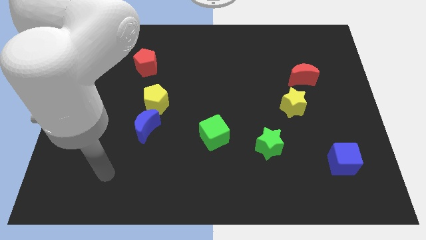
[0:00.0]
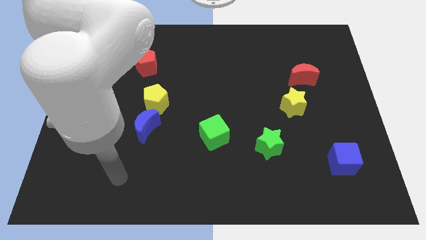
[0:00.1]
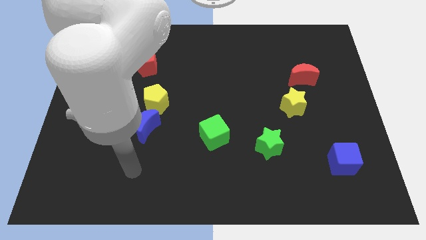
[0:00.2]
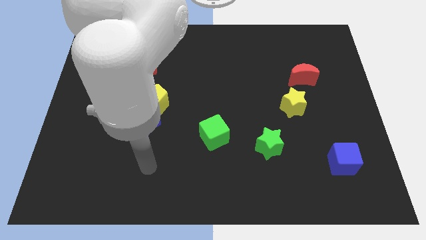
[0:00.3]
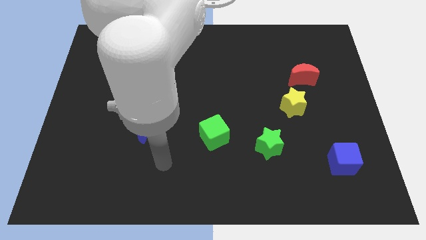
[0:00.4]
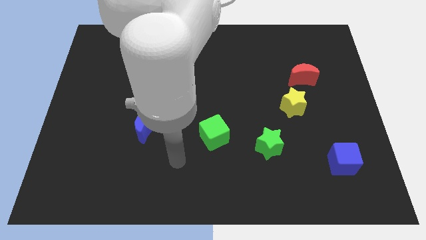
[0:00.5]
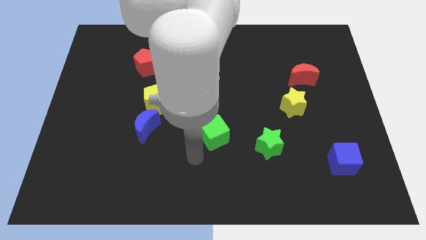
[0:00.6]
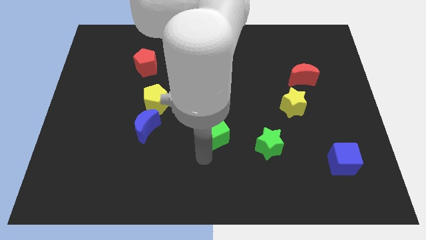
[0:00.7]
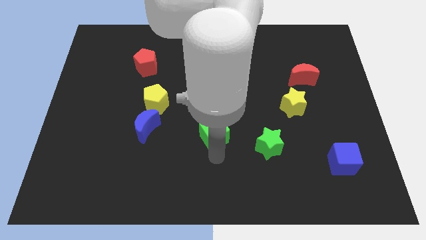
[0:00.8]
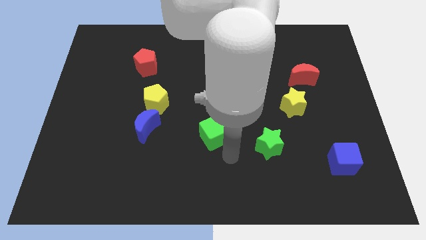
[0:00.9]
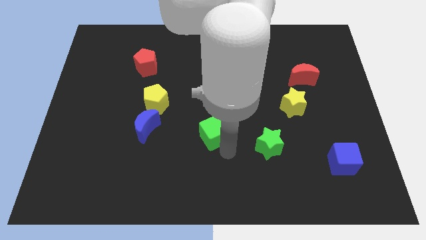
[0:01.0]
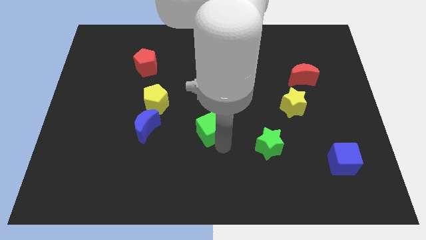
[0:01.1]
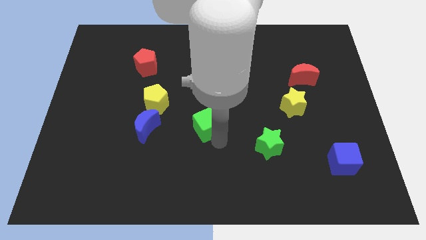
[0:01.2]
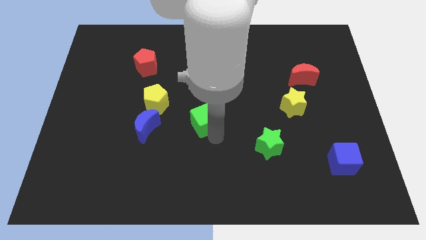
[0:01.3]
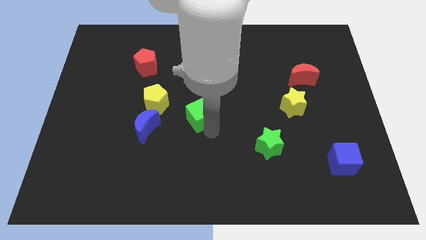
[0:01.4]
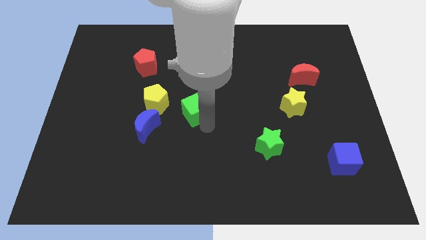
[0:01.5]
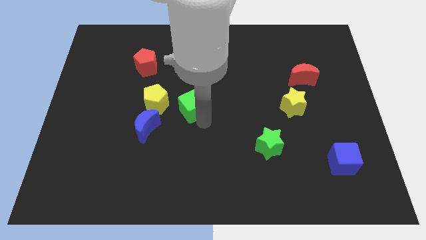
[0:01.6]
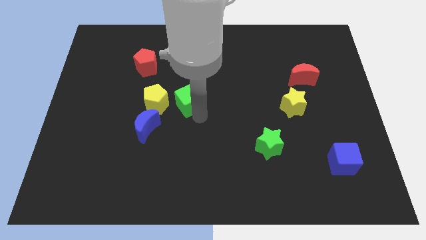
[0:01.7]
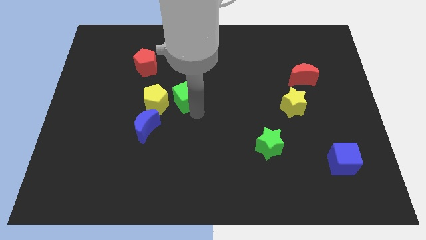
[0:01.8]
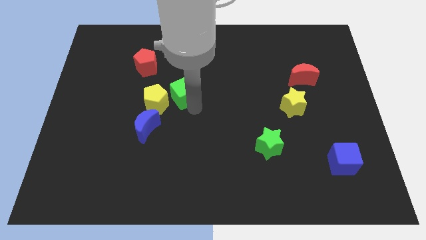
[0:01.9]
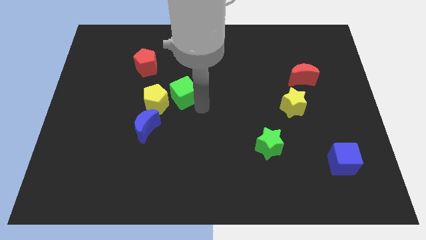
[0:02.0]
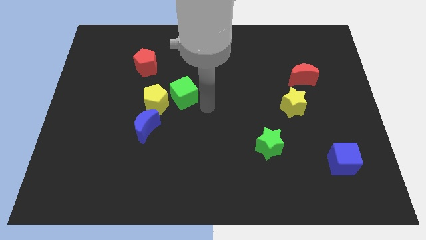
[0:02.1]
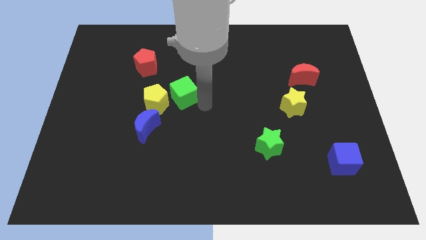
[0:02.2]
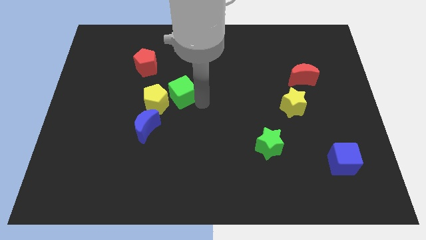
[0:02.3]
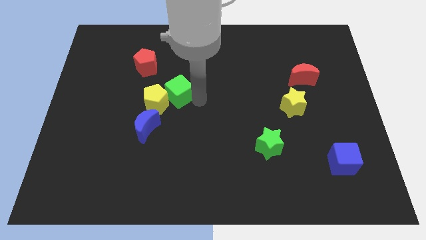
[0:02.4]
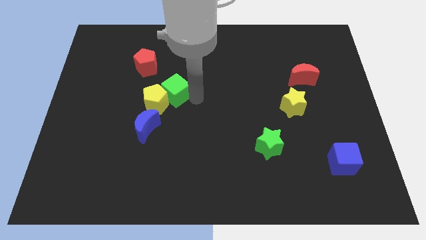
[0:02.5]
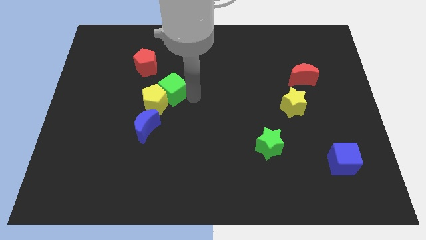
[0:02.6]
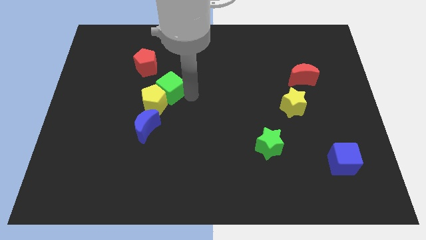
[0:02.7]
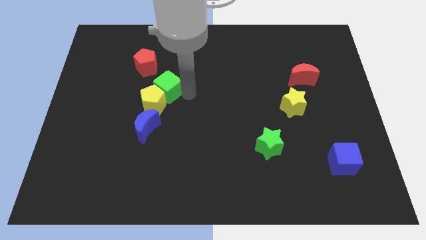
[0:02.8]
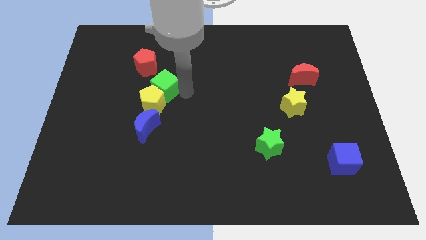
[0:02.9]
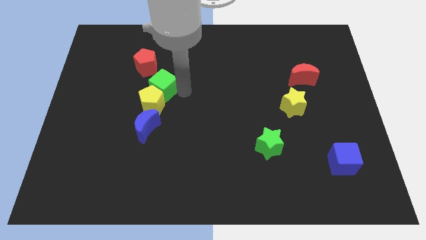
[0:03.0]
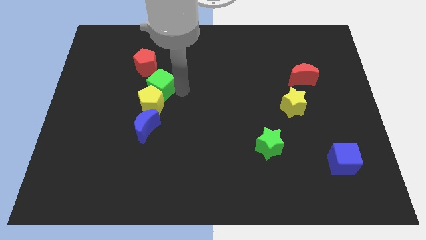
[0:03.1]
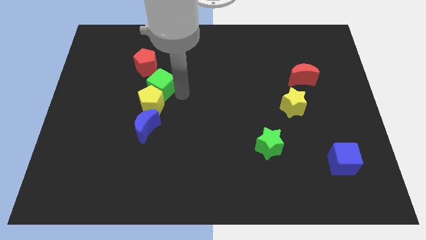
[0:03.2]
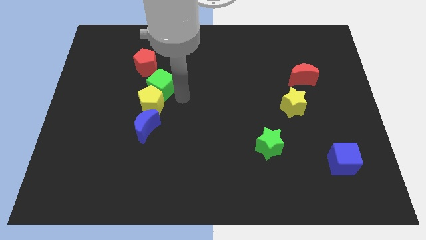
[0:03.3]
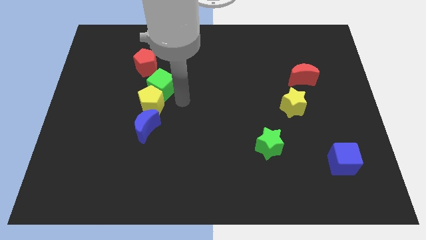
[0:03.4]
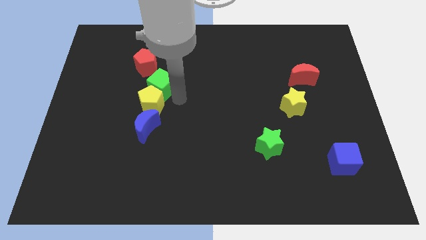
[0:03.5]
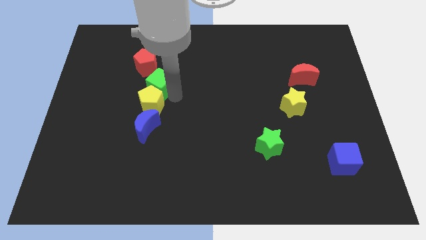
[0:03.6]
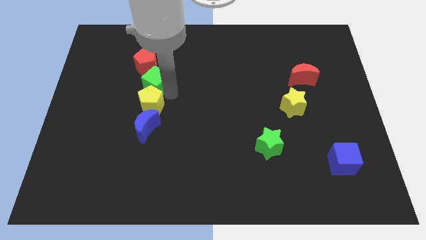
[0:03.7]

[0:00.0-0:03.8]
move the green cube up and left diagonally

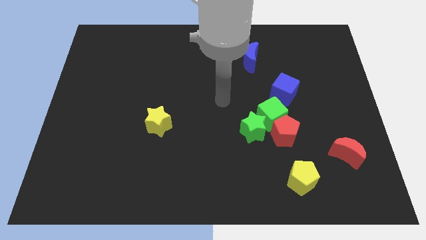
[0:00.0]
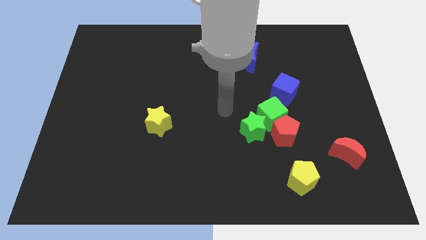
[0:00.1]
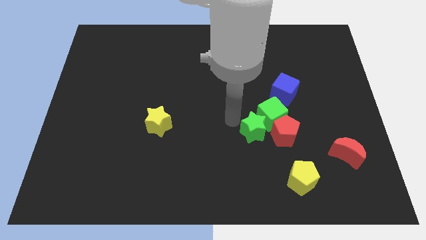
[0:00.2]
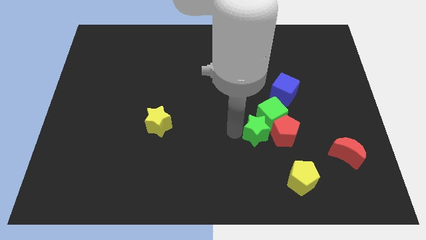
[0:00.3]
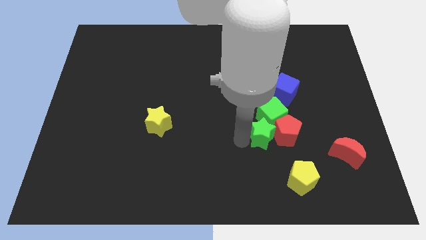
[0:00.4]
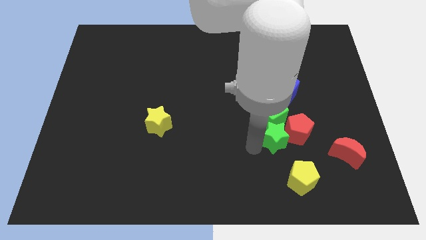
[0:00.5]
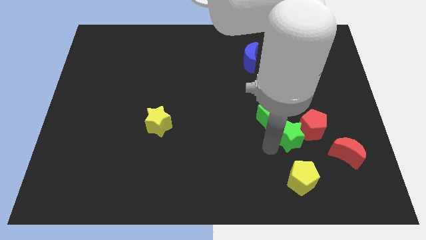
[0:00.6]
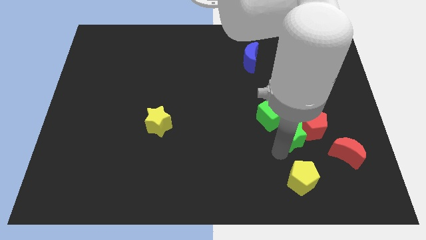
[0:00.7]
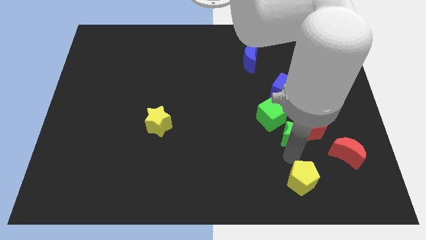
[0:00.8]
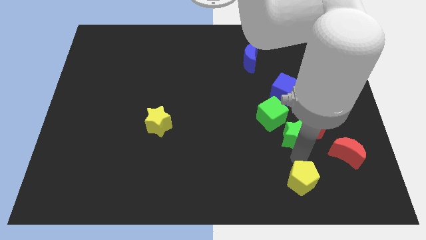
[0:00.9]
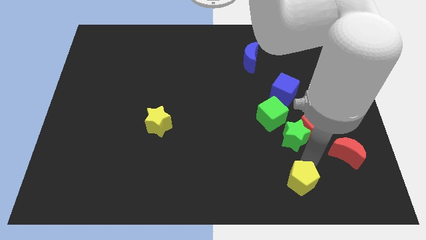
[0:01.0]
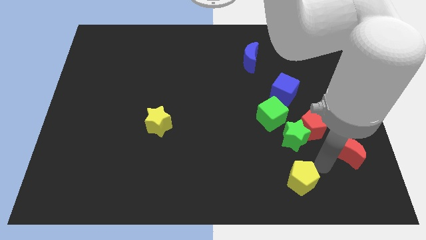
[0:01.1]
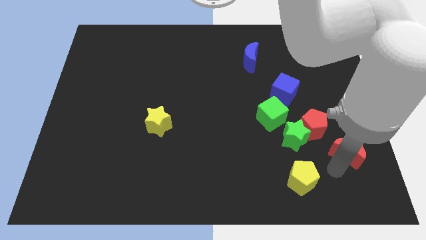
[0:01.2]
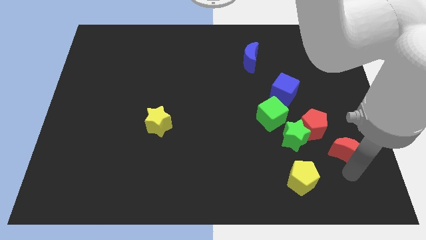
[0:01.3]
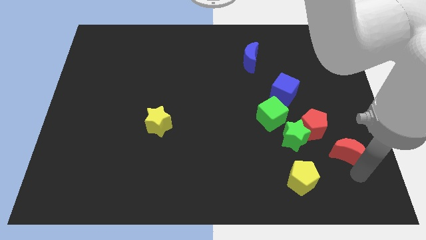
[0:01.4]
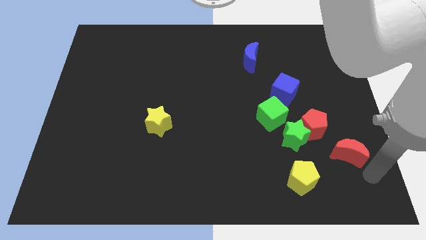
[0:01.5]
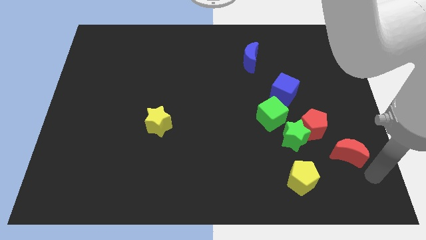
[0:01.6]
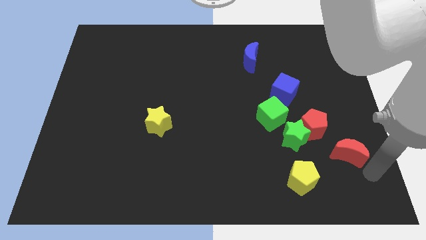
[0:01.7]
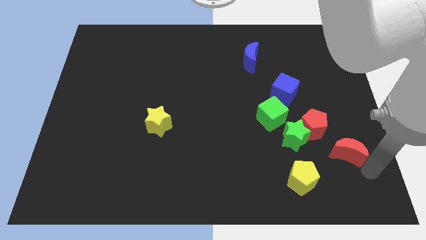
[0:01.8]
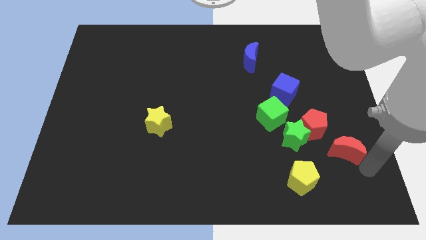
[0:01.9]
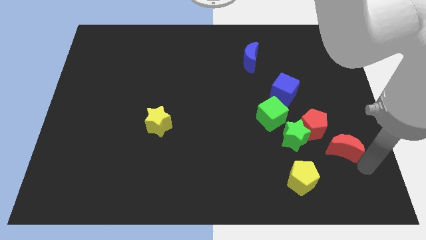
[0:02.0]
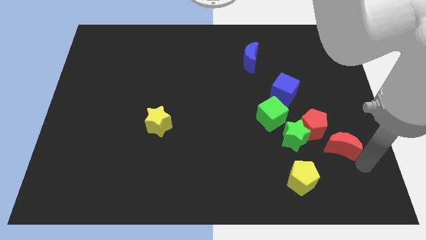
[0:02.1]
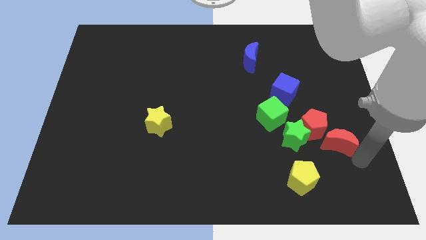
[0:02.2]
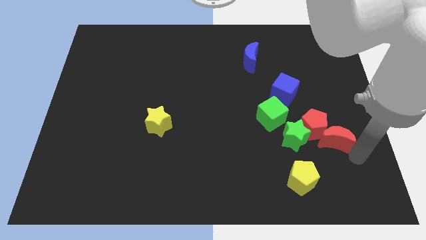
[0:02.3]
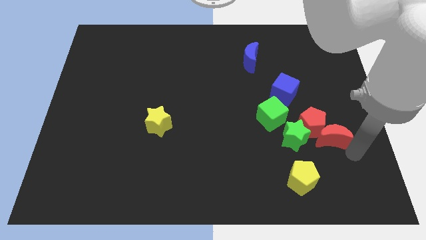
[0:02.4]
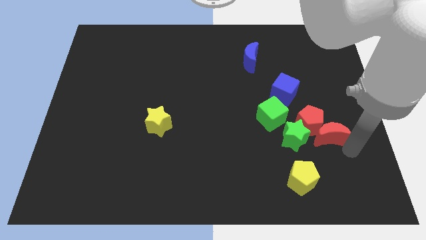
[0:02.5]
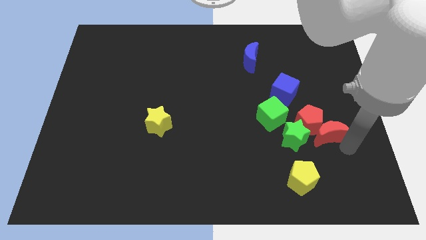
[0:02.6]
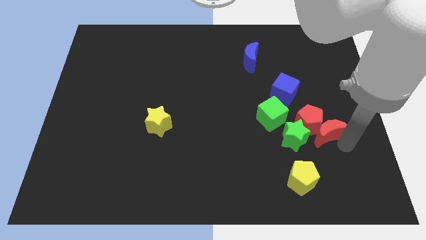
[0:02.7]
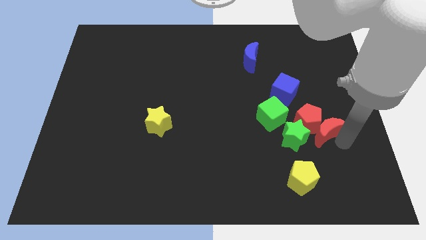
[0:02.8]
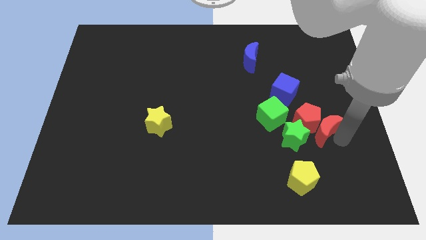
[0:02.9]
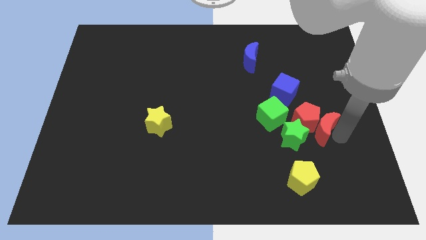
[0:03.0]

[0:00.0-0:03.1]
slightly move the red moon upwards and then left

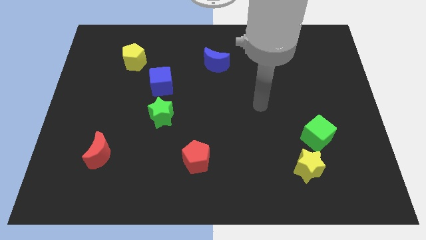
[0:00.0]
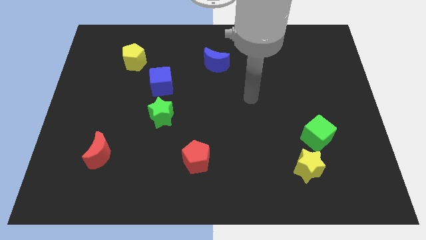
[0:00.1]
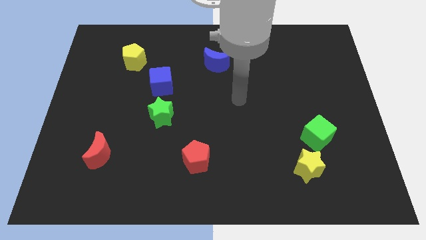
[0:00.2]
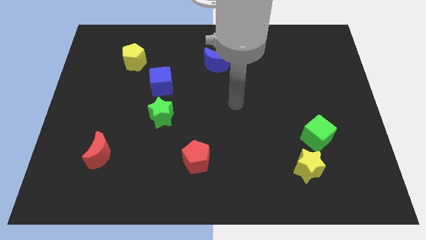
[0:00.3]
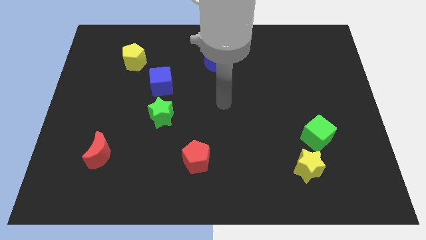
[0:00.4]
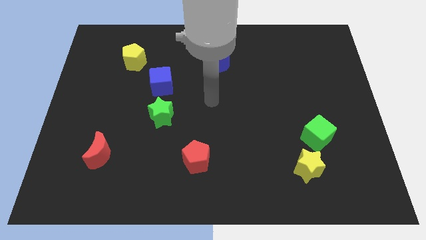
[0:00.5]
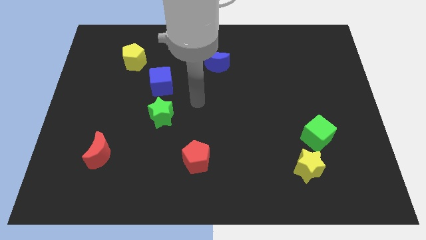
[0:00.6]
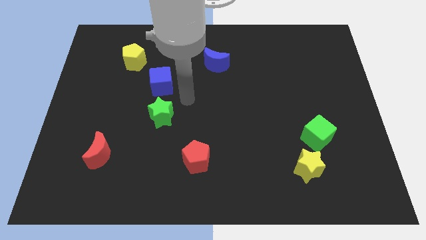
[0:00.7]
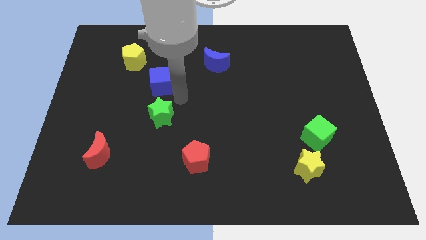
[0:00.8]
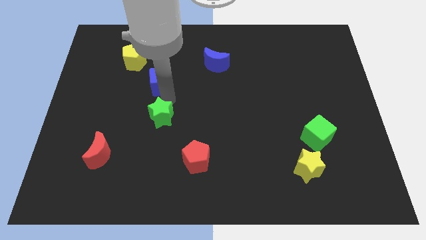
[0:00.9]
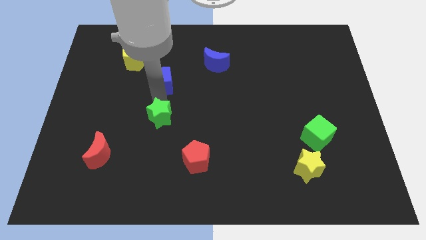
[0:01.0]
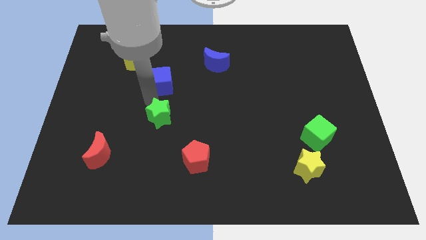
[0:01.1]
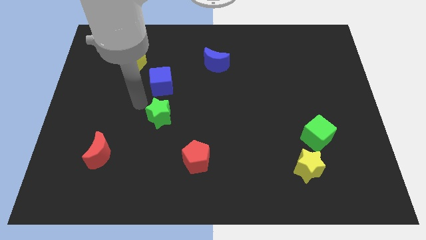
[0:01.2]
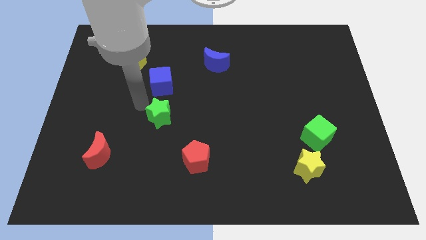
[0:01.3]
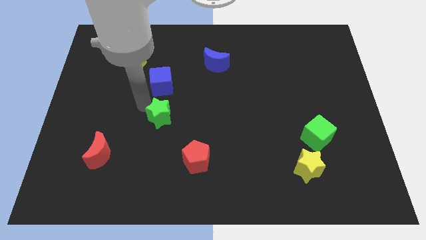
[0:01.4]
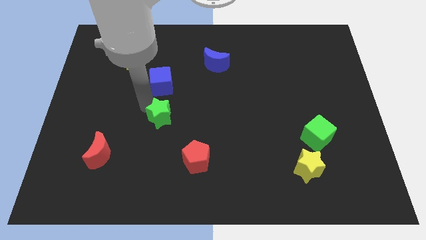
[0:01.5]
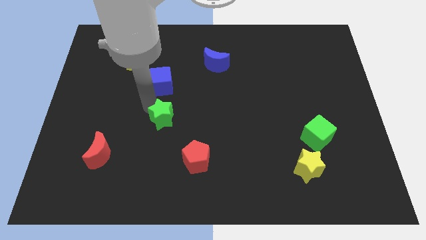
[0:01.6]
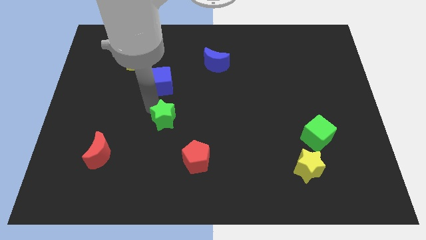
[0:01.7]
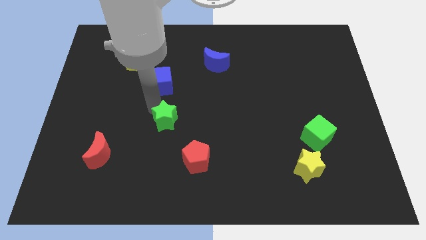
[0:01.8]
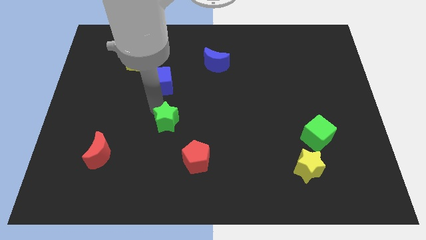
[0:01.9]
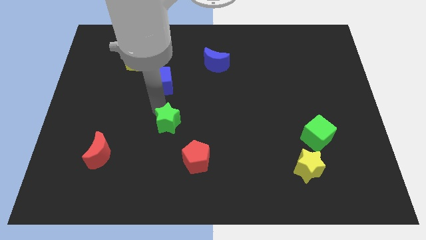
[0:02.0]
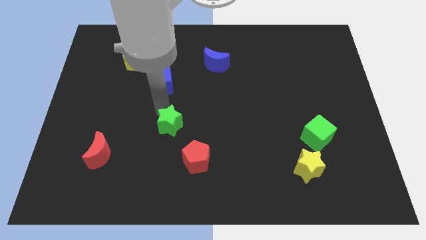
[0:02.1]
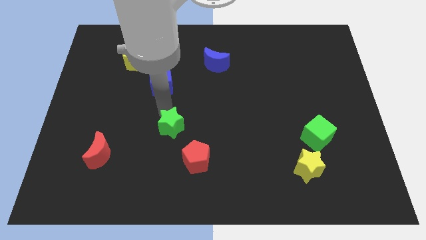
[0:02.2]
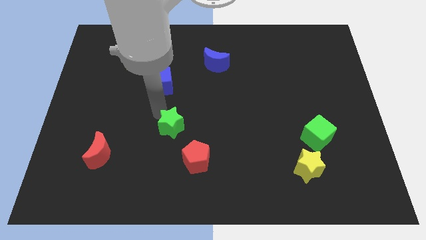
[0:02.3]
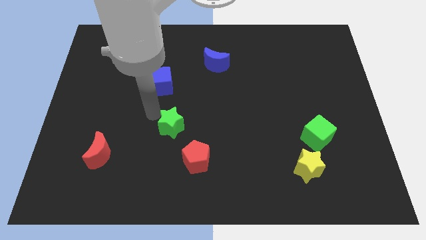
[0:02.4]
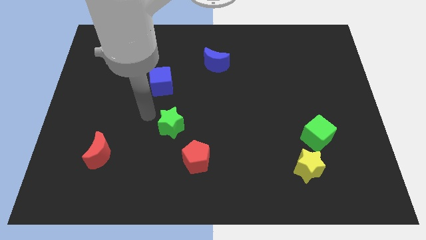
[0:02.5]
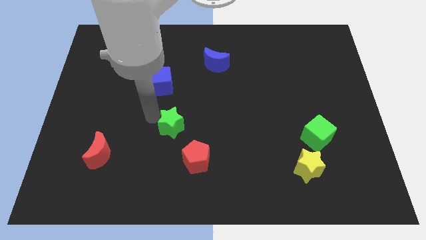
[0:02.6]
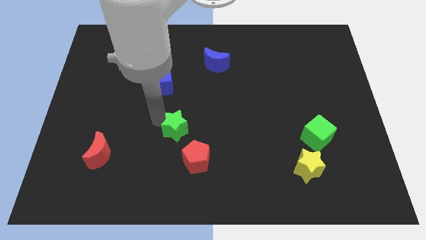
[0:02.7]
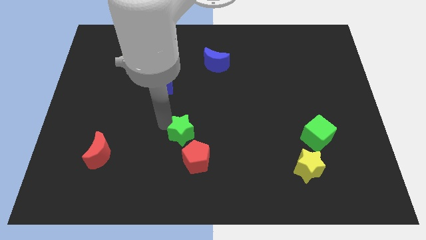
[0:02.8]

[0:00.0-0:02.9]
push the green star a little downwards and then to the right
